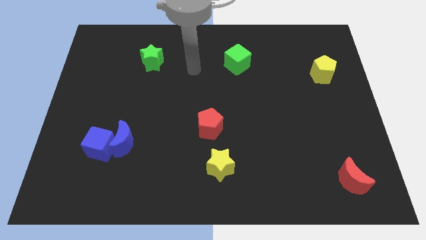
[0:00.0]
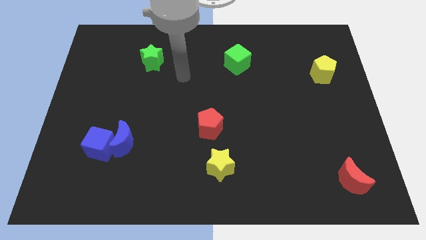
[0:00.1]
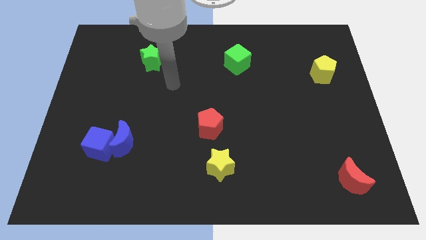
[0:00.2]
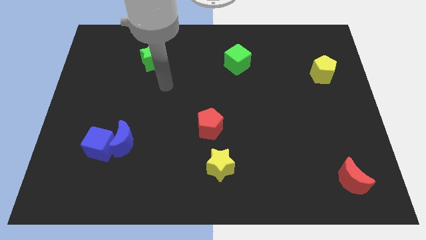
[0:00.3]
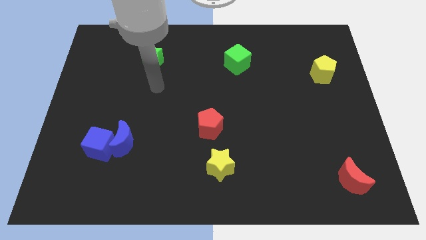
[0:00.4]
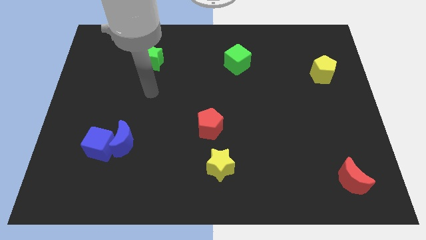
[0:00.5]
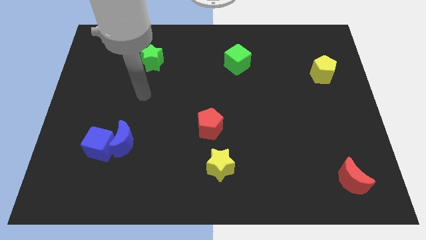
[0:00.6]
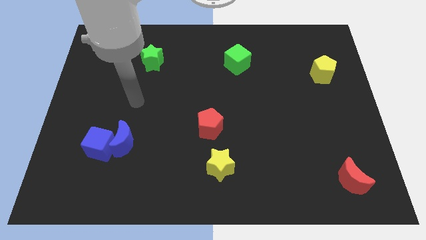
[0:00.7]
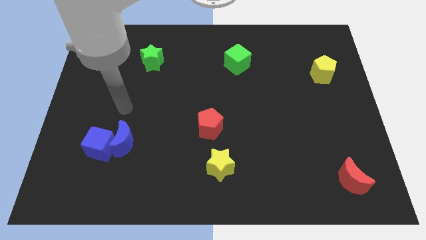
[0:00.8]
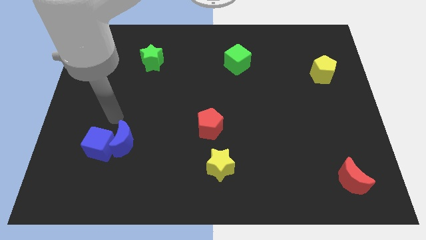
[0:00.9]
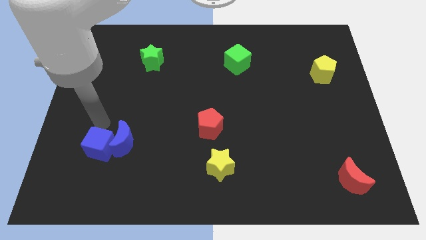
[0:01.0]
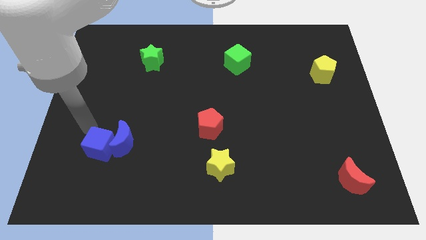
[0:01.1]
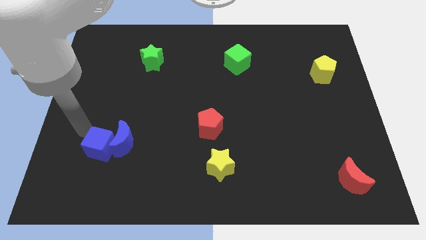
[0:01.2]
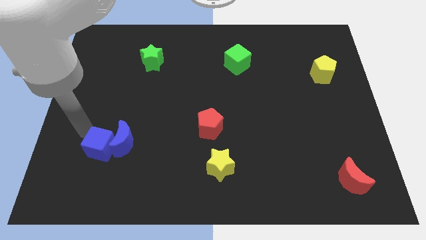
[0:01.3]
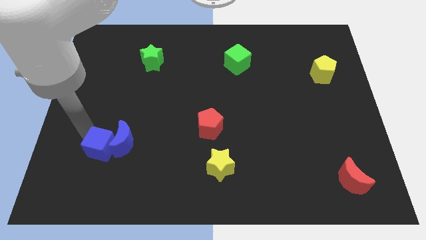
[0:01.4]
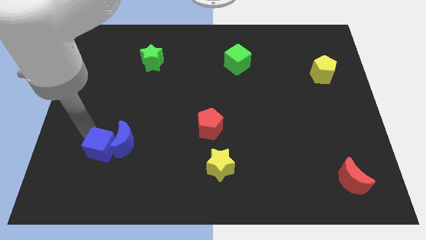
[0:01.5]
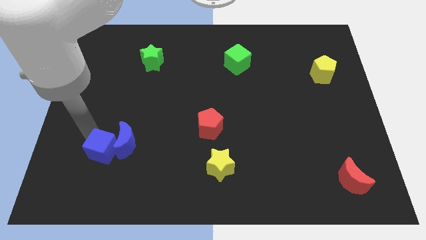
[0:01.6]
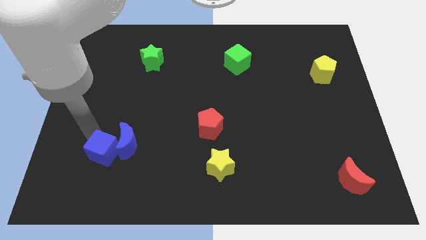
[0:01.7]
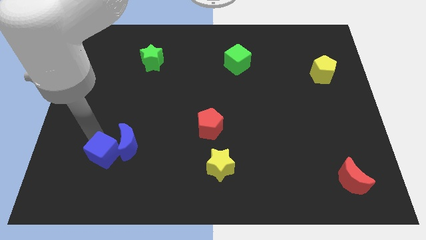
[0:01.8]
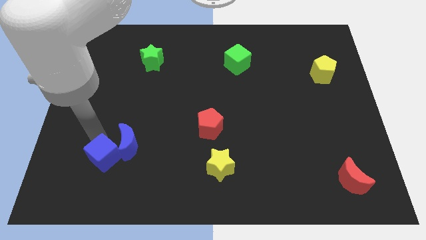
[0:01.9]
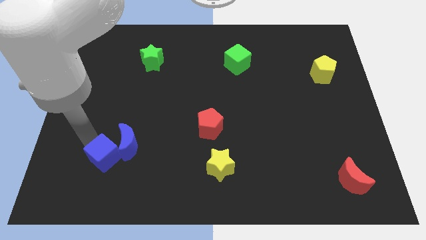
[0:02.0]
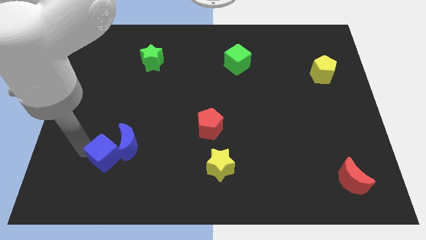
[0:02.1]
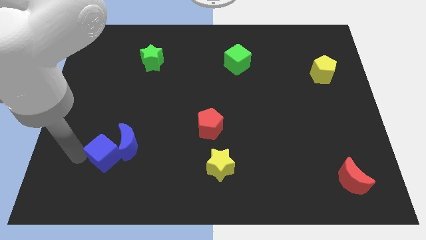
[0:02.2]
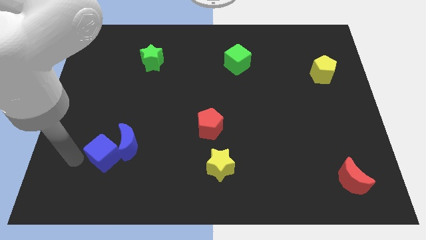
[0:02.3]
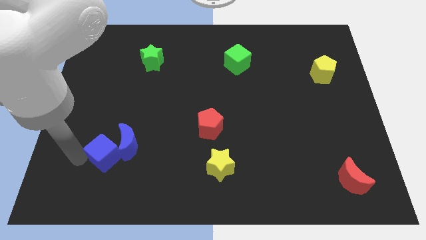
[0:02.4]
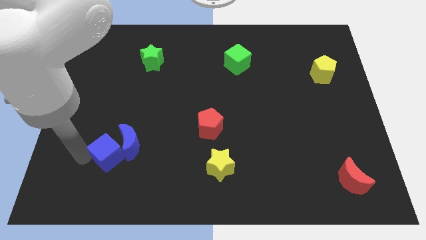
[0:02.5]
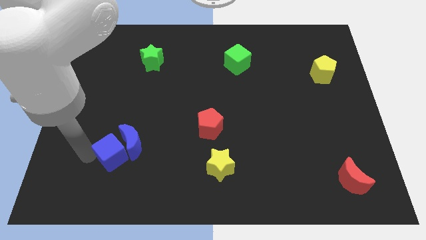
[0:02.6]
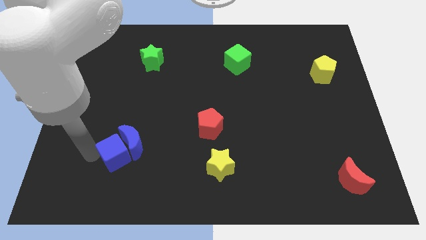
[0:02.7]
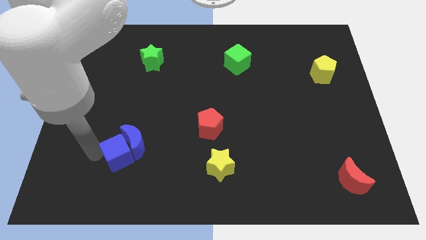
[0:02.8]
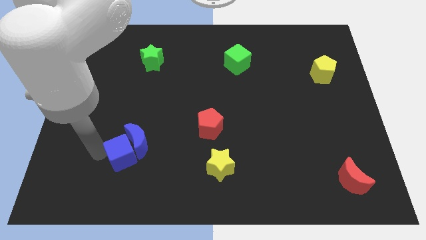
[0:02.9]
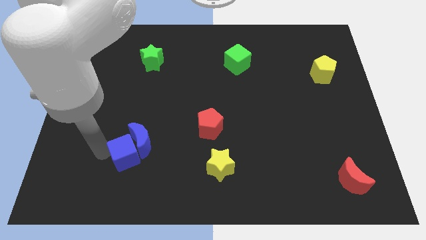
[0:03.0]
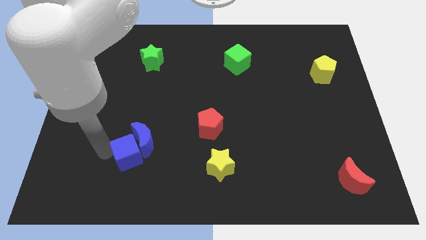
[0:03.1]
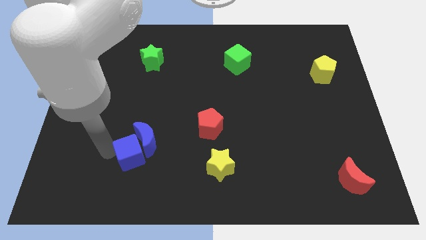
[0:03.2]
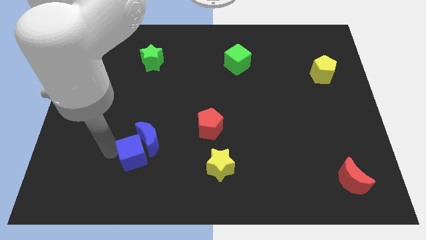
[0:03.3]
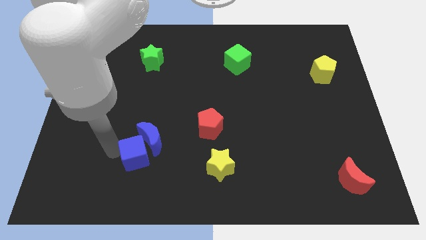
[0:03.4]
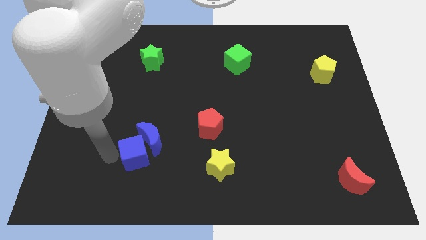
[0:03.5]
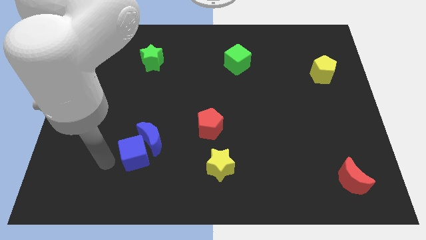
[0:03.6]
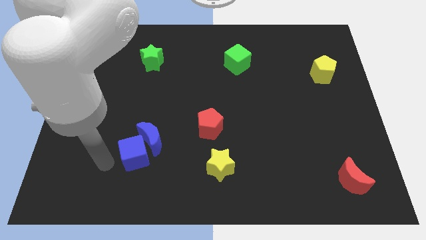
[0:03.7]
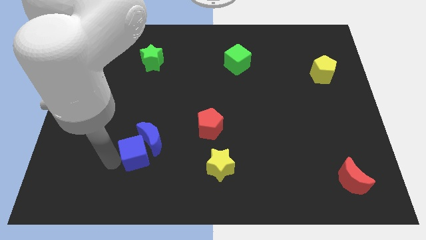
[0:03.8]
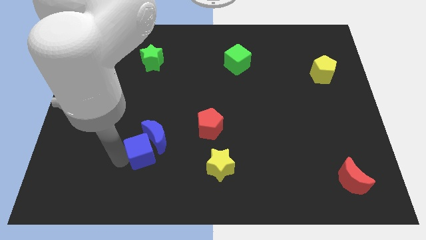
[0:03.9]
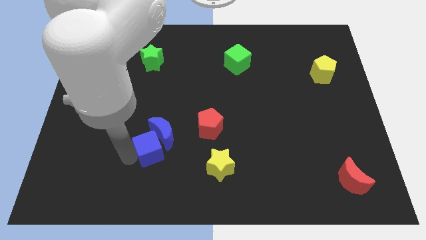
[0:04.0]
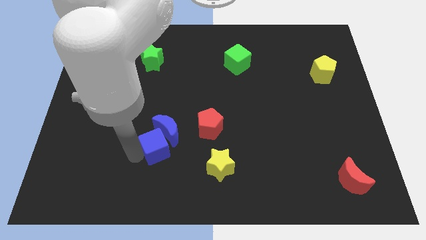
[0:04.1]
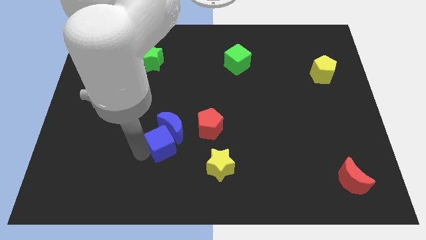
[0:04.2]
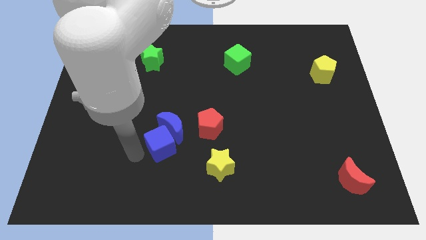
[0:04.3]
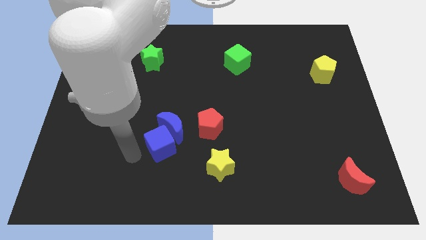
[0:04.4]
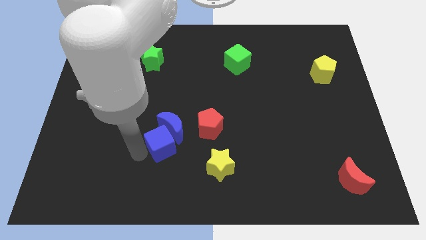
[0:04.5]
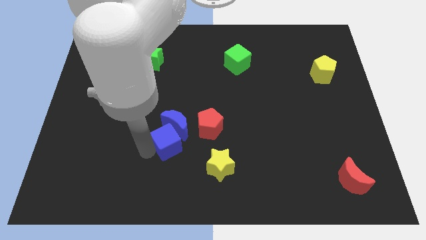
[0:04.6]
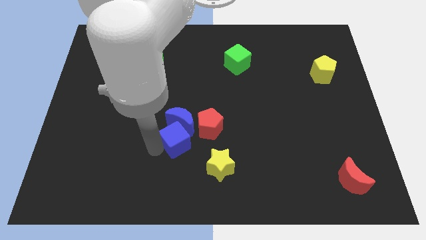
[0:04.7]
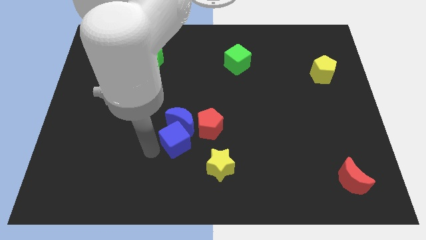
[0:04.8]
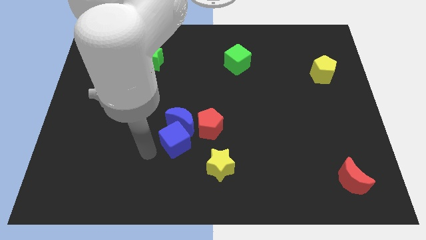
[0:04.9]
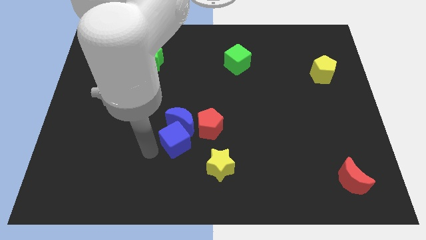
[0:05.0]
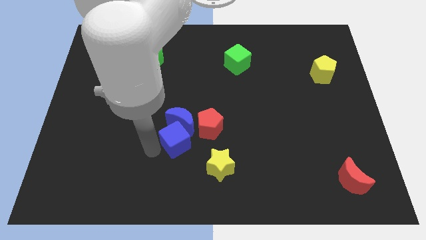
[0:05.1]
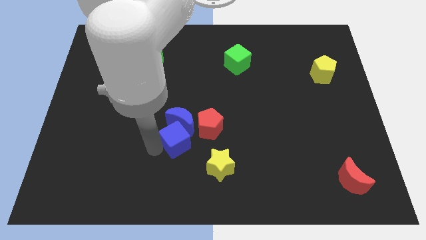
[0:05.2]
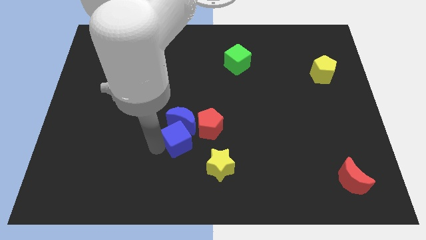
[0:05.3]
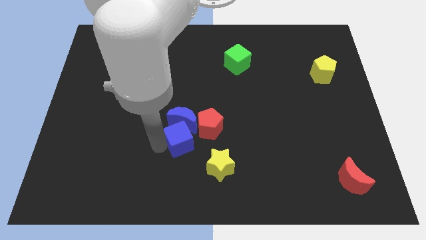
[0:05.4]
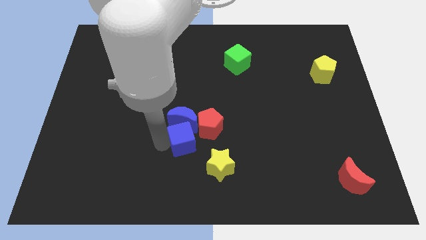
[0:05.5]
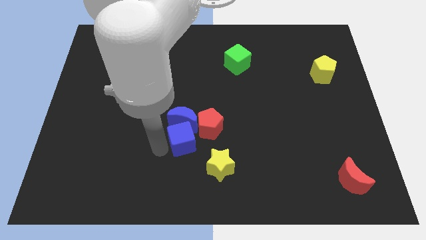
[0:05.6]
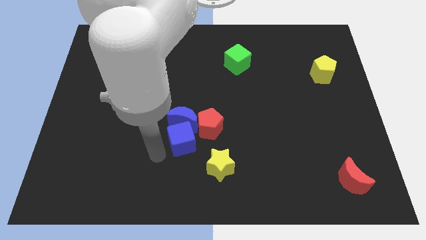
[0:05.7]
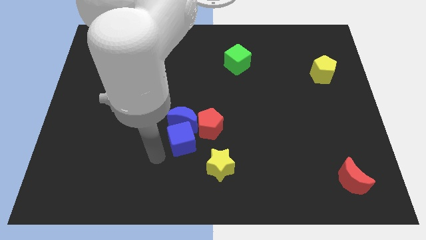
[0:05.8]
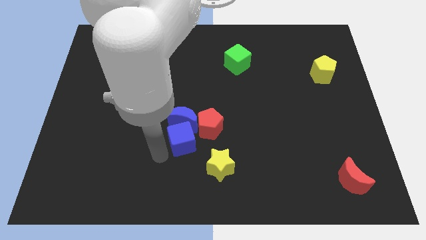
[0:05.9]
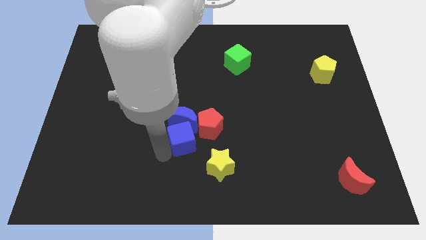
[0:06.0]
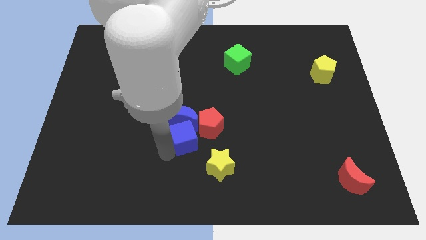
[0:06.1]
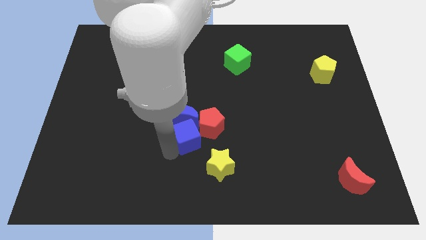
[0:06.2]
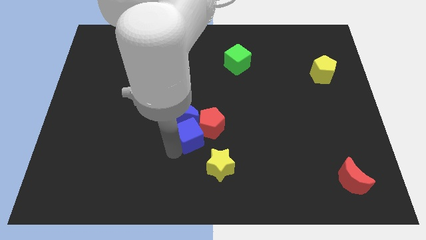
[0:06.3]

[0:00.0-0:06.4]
slide the blue cube close to the red pentagon

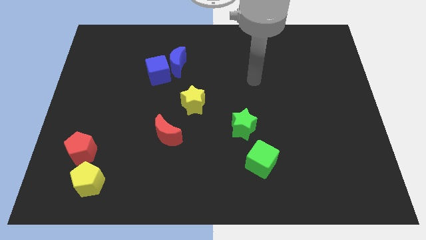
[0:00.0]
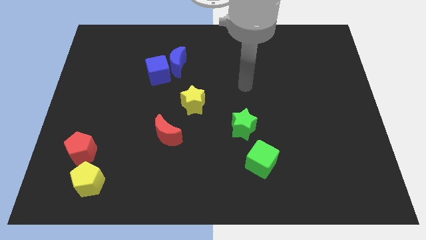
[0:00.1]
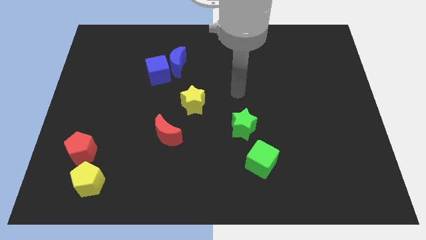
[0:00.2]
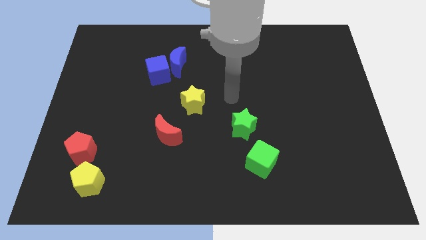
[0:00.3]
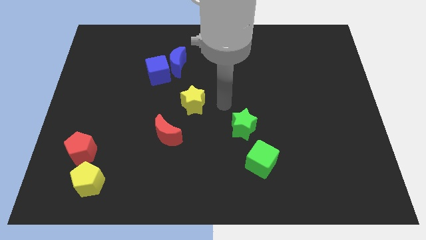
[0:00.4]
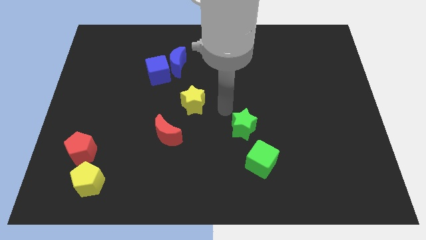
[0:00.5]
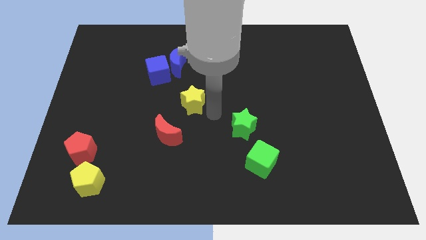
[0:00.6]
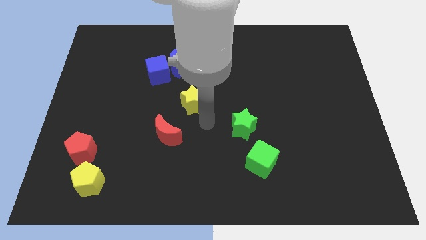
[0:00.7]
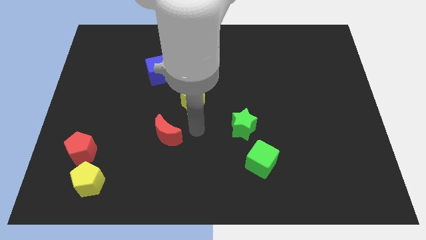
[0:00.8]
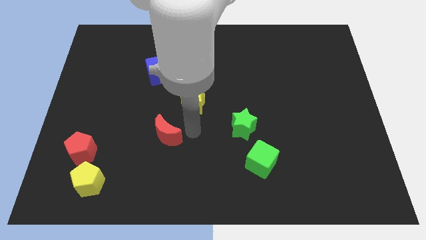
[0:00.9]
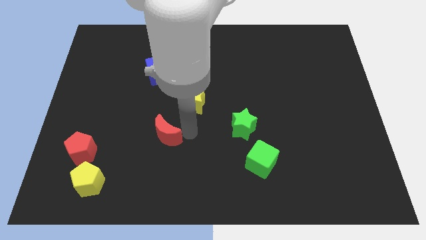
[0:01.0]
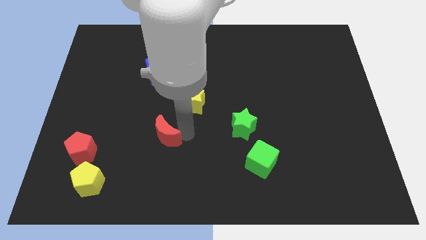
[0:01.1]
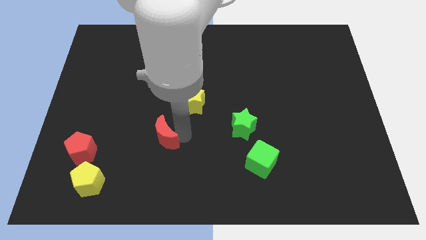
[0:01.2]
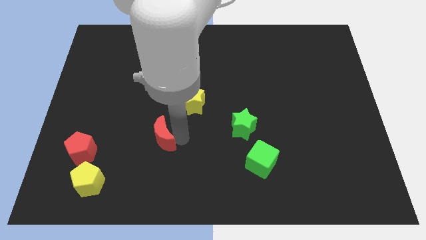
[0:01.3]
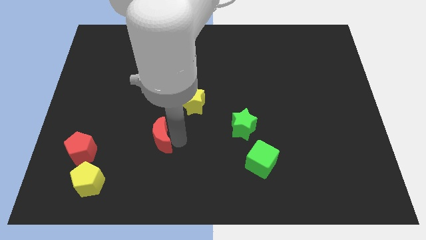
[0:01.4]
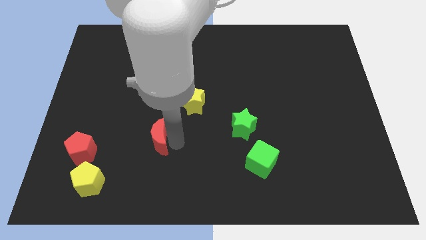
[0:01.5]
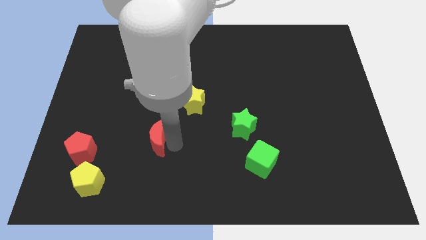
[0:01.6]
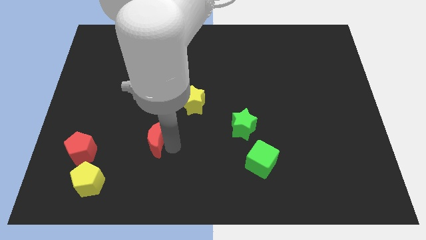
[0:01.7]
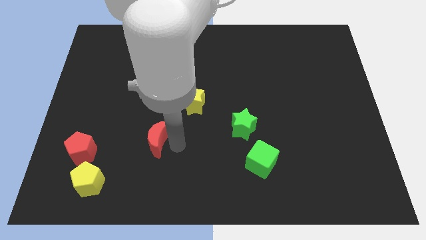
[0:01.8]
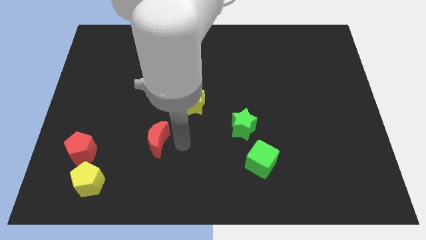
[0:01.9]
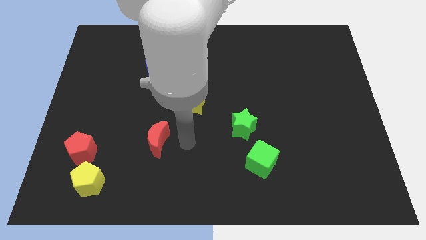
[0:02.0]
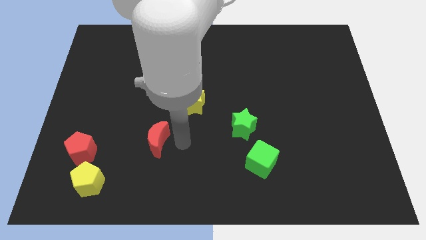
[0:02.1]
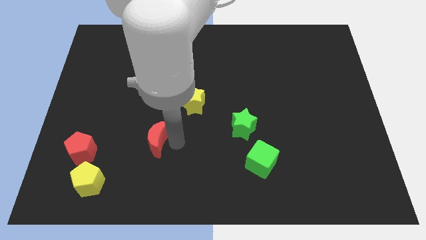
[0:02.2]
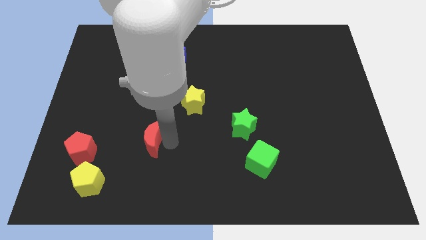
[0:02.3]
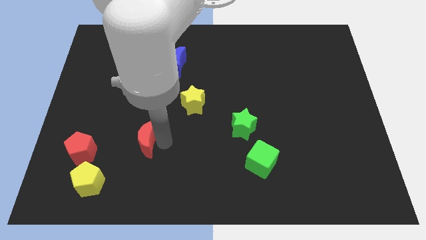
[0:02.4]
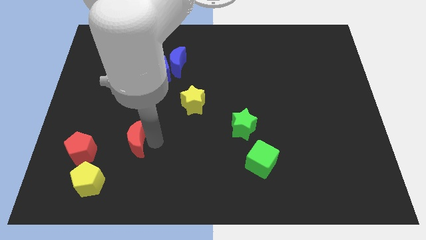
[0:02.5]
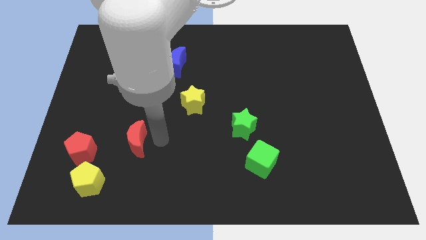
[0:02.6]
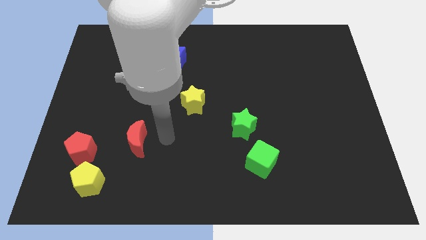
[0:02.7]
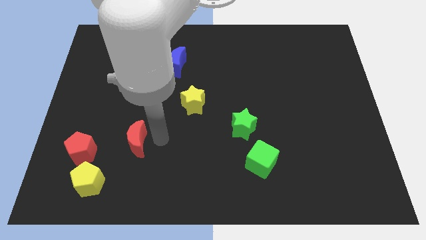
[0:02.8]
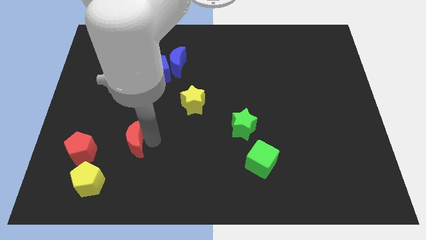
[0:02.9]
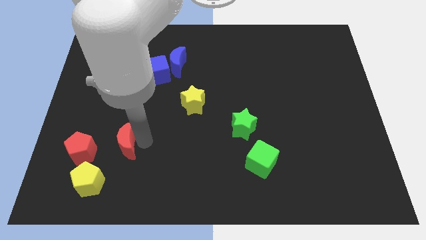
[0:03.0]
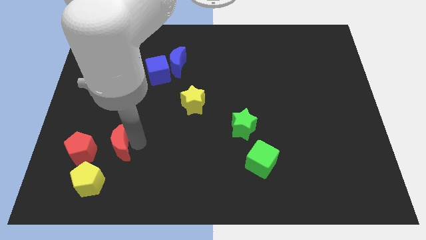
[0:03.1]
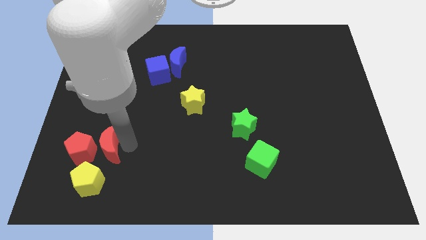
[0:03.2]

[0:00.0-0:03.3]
move the red moon towards the red pentagon
